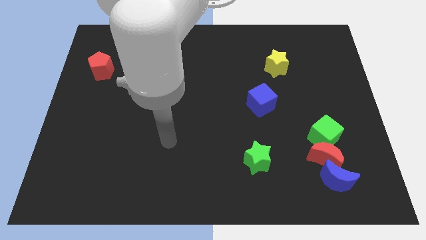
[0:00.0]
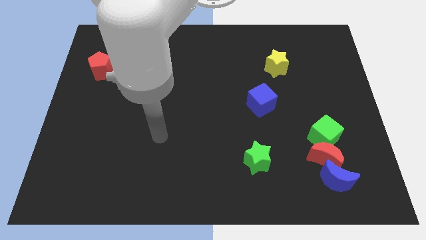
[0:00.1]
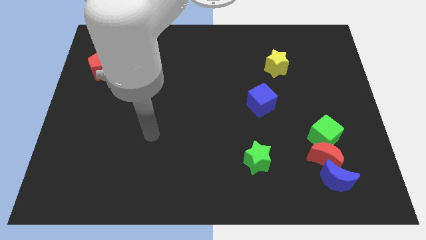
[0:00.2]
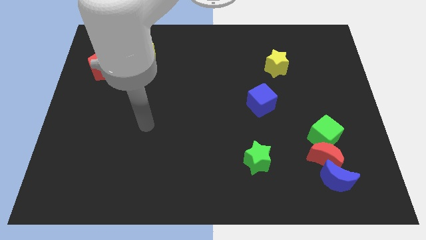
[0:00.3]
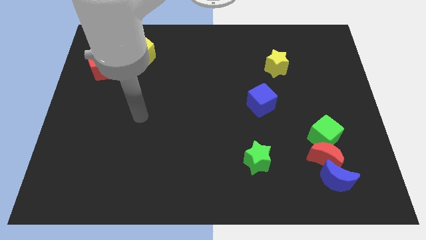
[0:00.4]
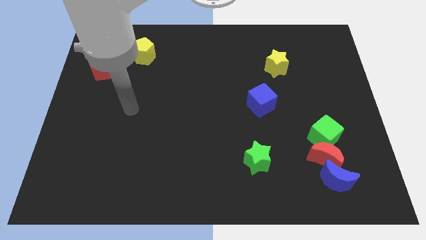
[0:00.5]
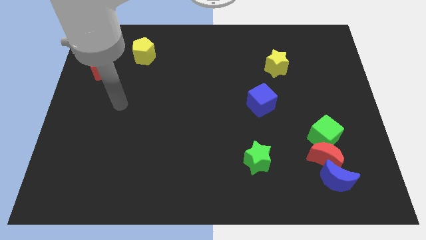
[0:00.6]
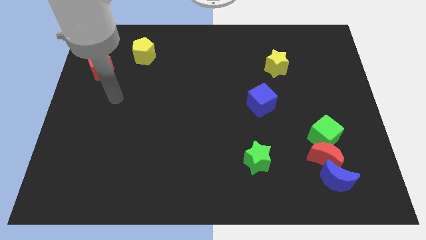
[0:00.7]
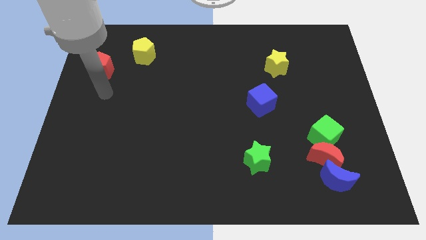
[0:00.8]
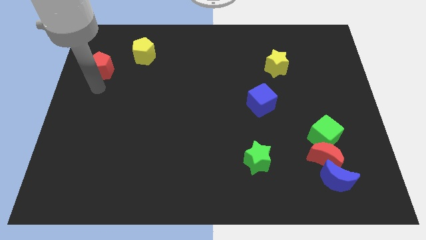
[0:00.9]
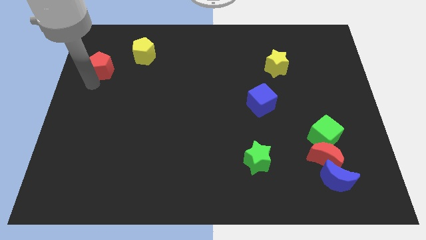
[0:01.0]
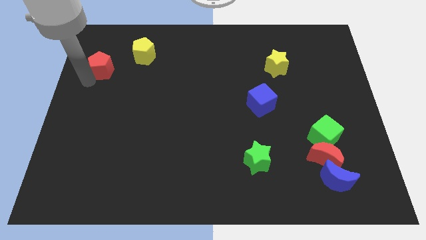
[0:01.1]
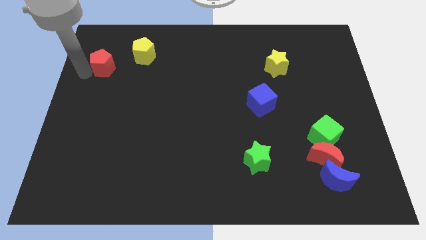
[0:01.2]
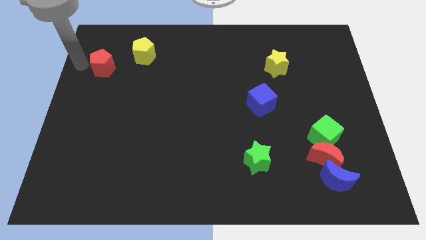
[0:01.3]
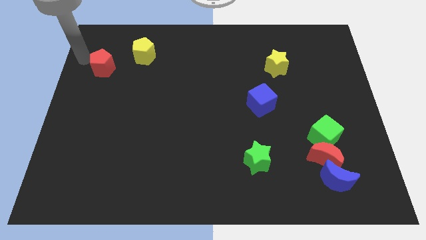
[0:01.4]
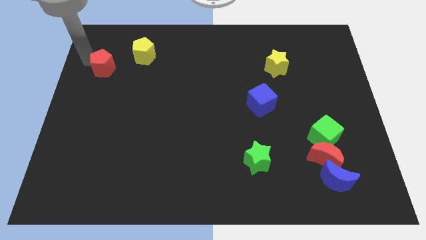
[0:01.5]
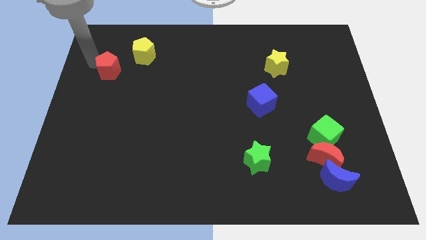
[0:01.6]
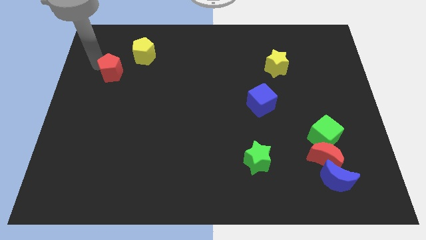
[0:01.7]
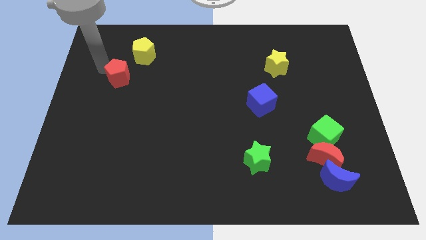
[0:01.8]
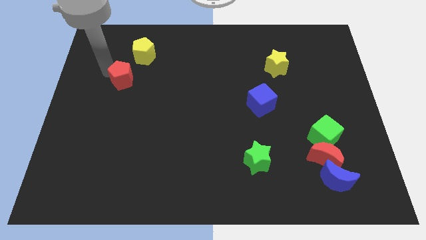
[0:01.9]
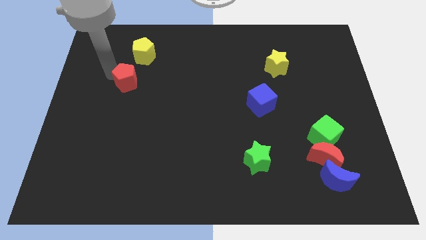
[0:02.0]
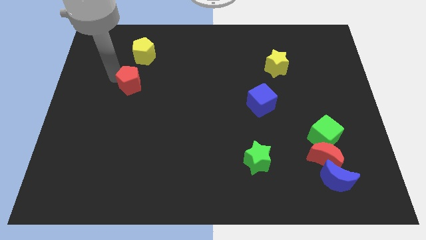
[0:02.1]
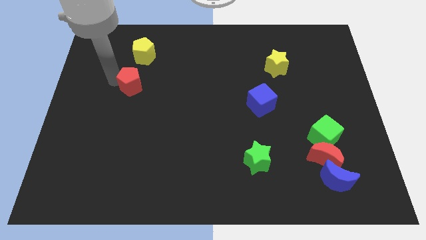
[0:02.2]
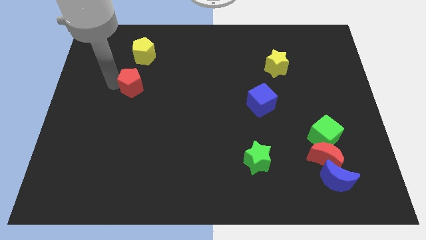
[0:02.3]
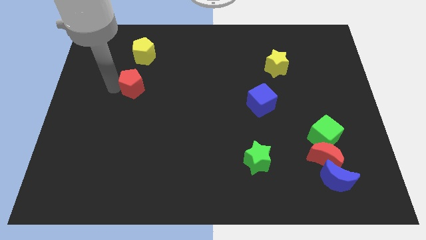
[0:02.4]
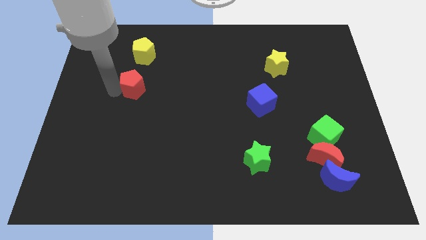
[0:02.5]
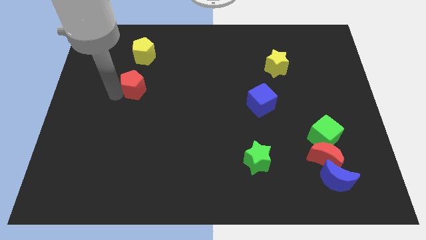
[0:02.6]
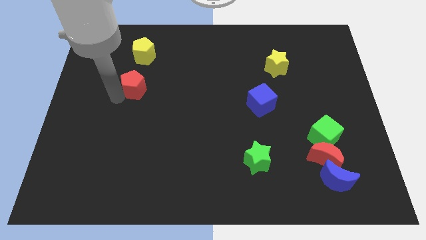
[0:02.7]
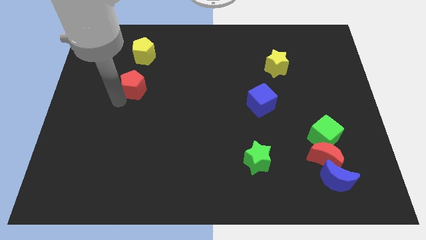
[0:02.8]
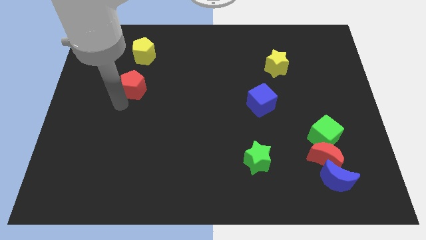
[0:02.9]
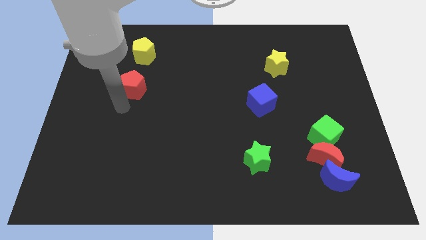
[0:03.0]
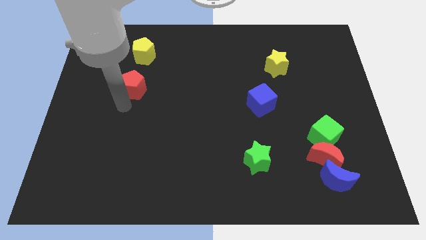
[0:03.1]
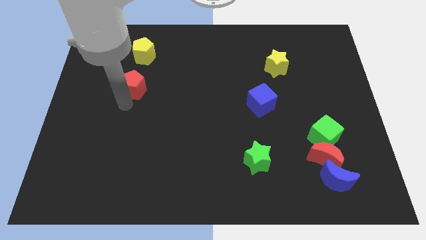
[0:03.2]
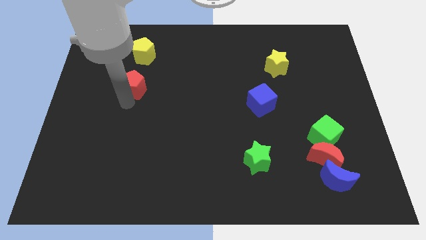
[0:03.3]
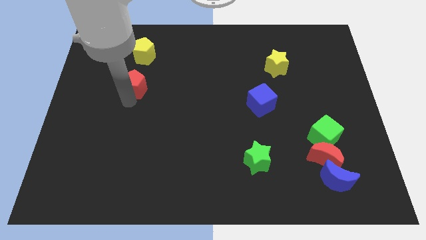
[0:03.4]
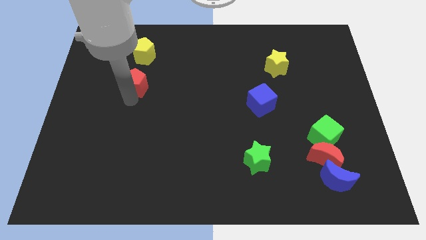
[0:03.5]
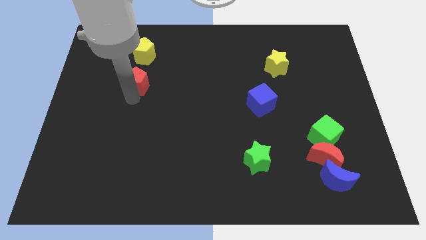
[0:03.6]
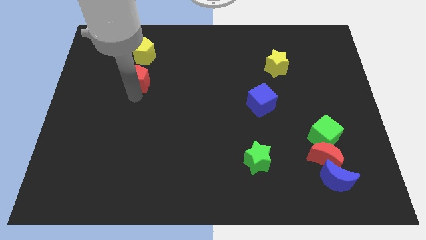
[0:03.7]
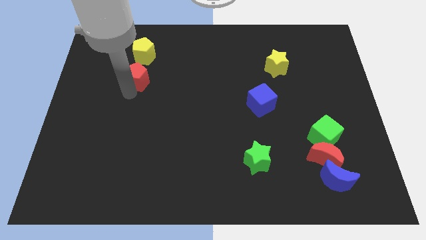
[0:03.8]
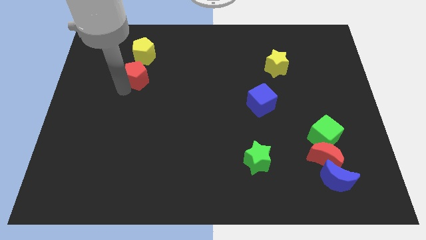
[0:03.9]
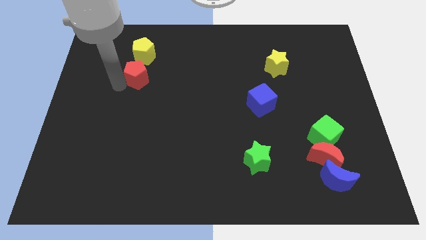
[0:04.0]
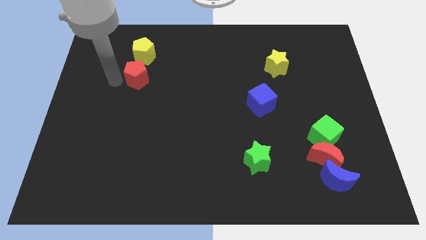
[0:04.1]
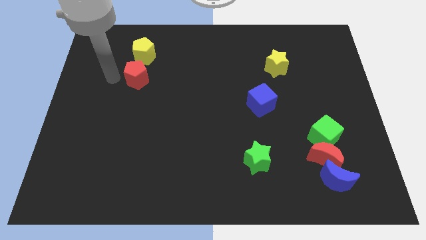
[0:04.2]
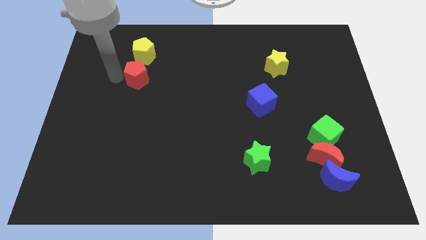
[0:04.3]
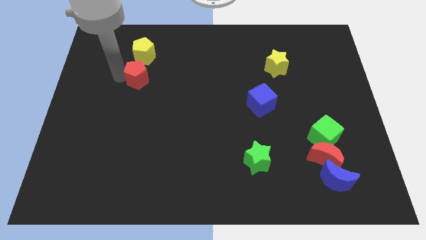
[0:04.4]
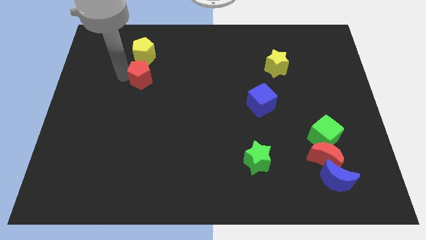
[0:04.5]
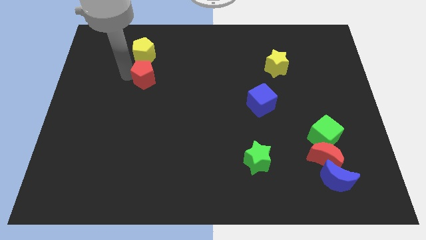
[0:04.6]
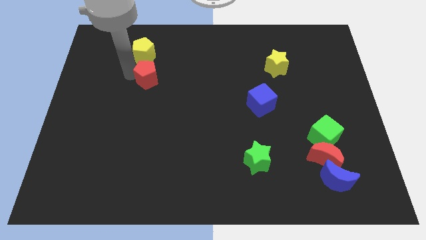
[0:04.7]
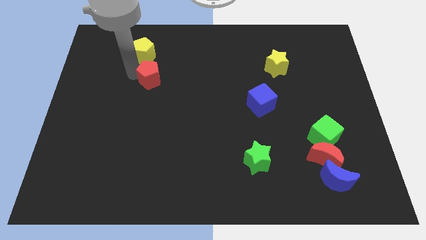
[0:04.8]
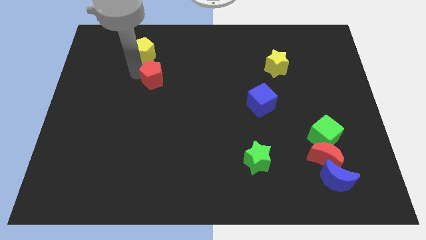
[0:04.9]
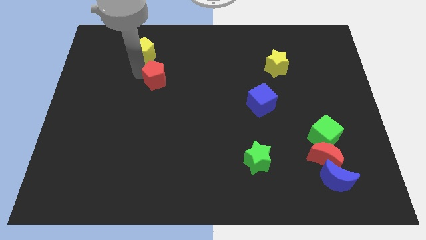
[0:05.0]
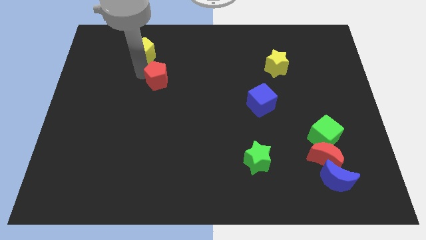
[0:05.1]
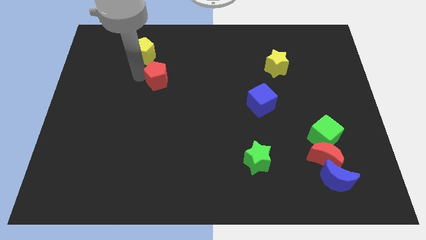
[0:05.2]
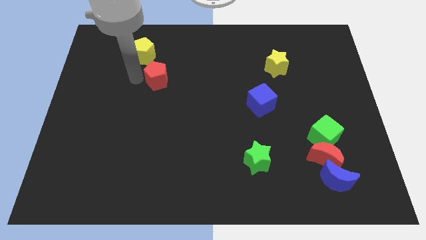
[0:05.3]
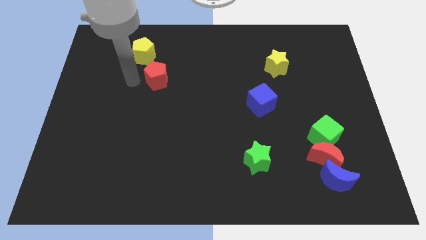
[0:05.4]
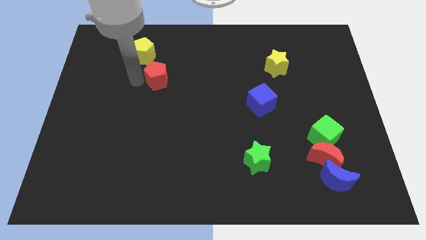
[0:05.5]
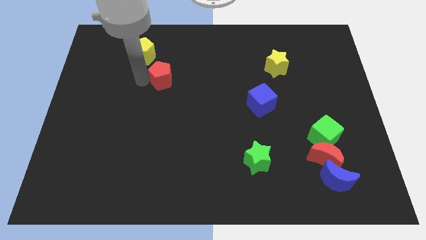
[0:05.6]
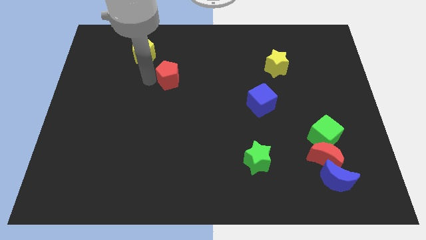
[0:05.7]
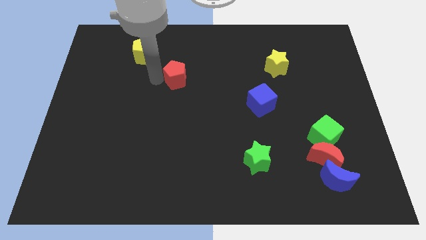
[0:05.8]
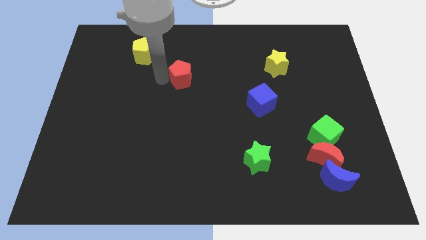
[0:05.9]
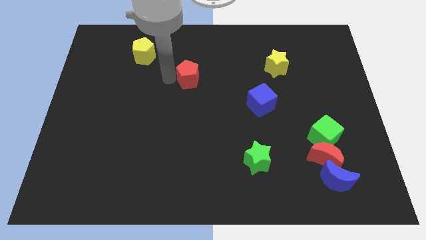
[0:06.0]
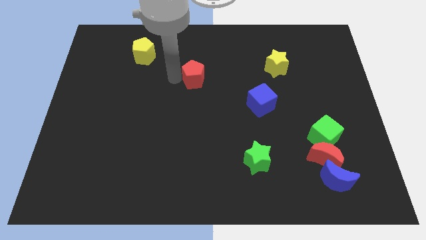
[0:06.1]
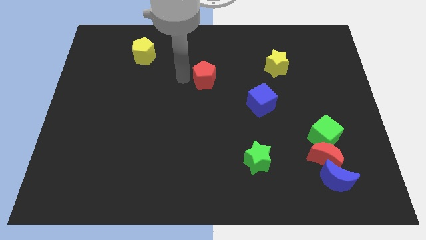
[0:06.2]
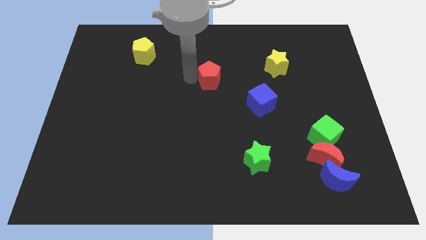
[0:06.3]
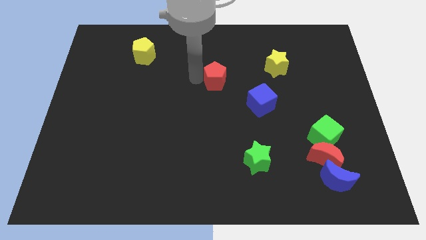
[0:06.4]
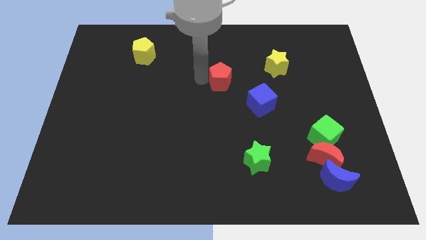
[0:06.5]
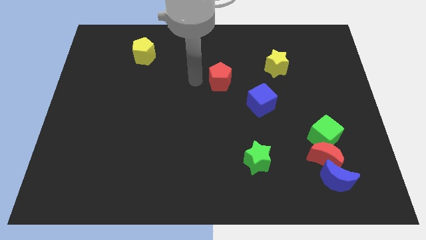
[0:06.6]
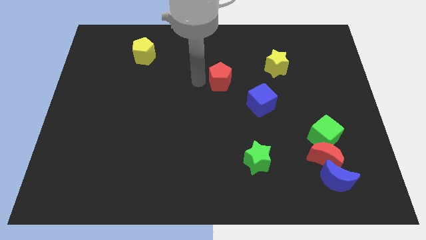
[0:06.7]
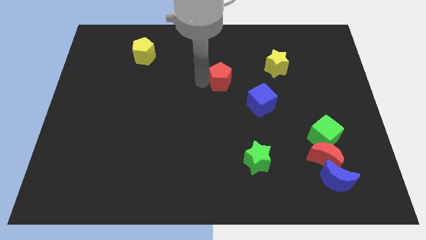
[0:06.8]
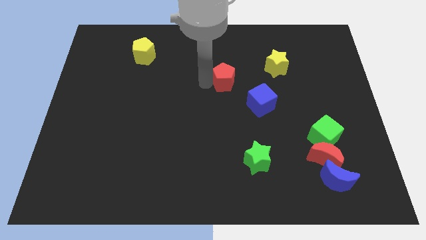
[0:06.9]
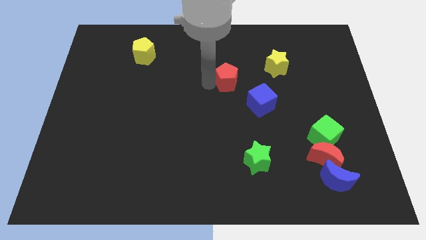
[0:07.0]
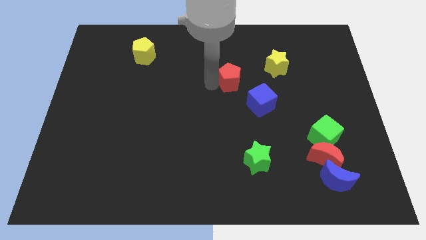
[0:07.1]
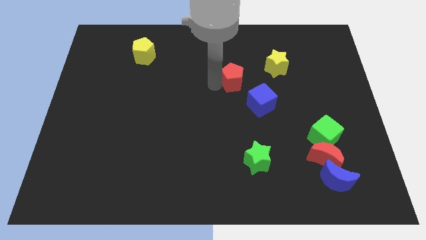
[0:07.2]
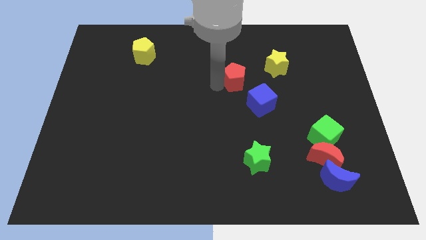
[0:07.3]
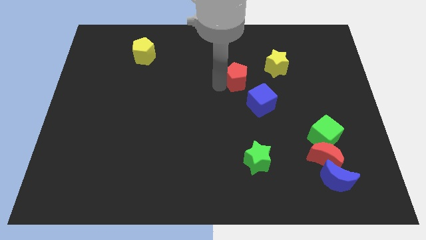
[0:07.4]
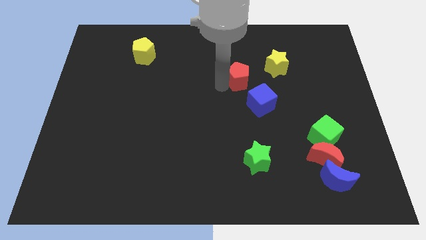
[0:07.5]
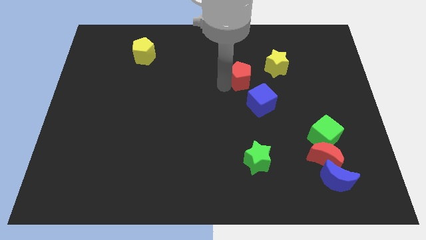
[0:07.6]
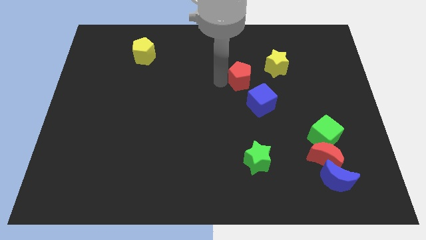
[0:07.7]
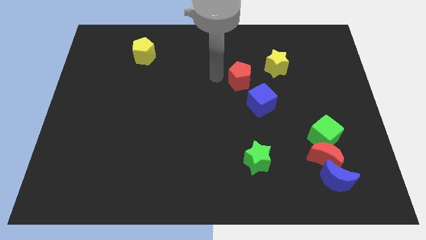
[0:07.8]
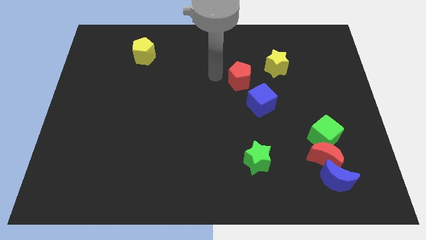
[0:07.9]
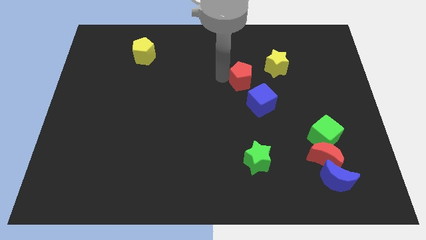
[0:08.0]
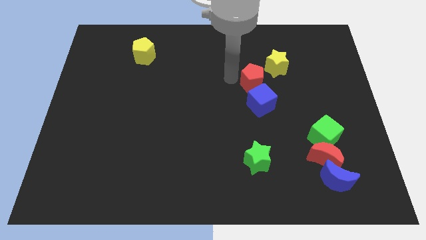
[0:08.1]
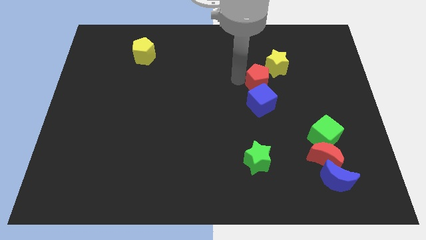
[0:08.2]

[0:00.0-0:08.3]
put the red pentagon diagonally up and to the right of the blue cube

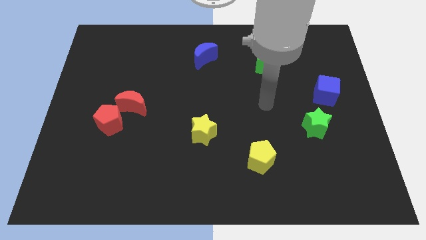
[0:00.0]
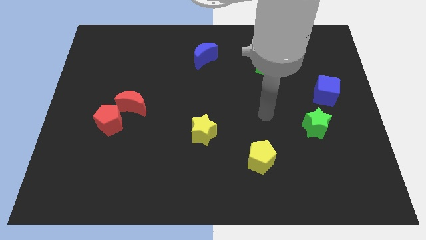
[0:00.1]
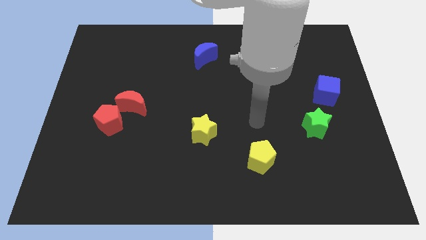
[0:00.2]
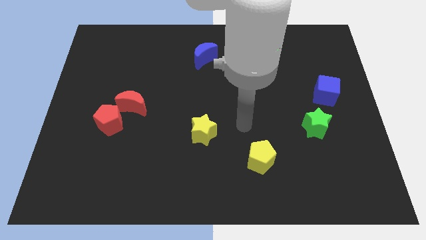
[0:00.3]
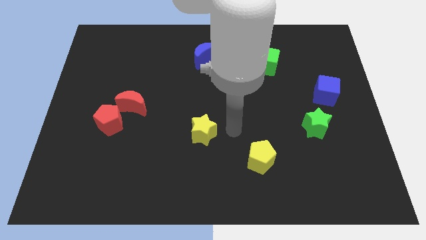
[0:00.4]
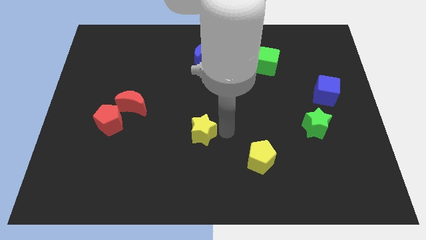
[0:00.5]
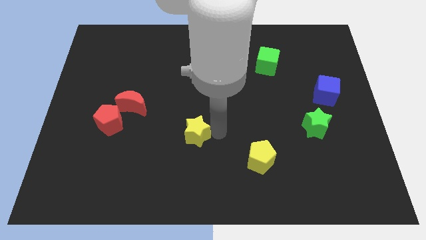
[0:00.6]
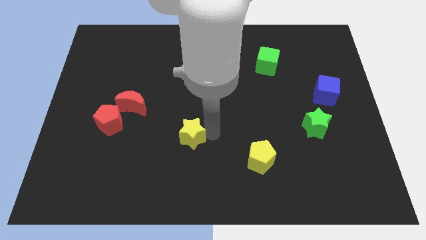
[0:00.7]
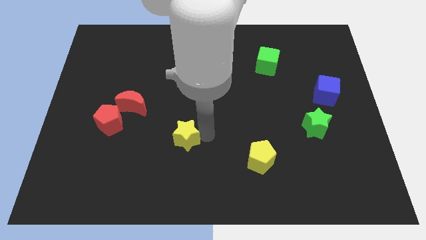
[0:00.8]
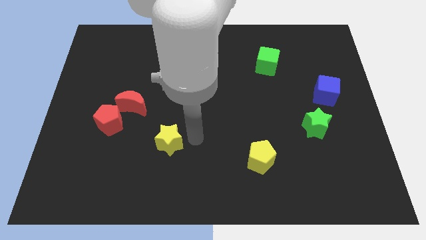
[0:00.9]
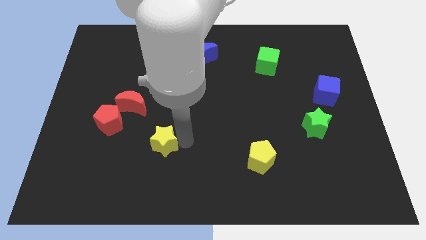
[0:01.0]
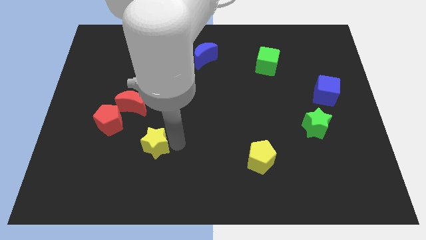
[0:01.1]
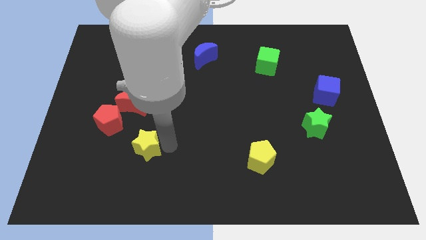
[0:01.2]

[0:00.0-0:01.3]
push the yellow star diagonally down and to the right of the red pentagon
